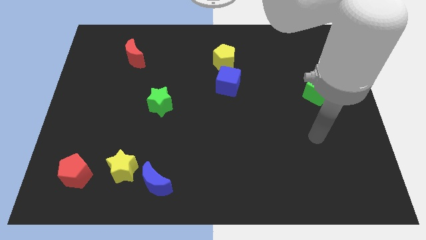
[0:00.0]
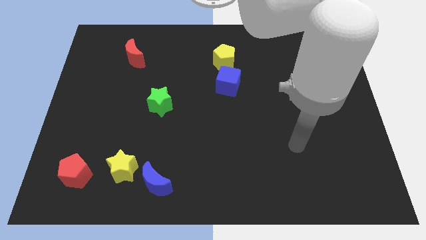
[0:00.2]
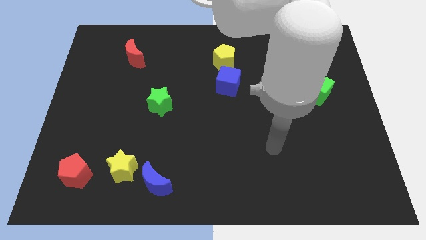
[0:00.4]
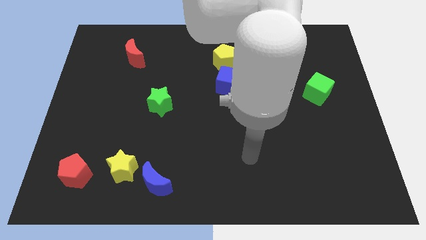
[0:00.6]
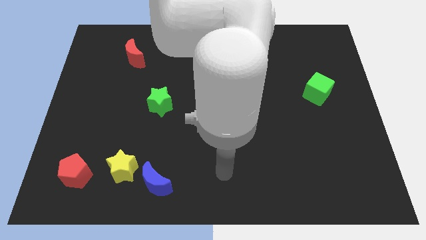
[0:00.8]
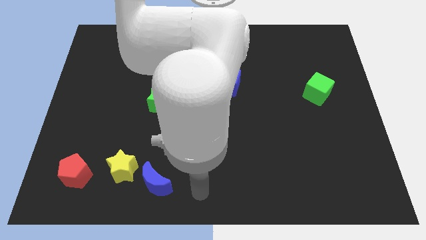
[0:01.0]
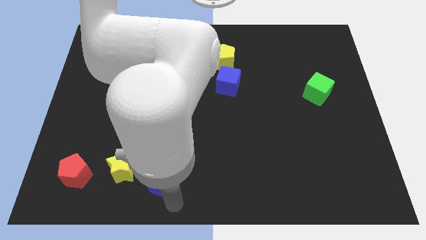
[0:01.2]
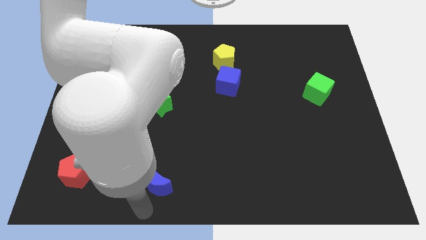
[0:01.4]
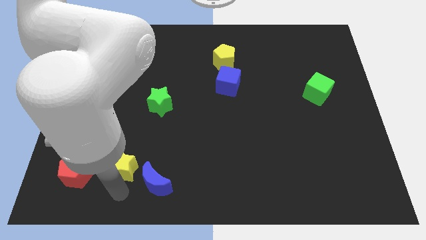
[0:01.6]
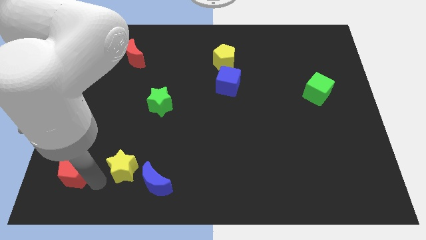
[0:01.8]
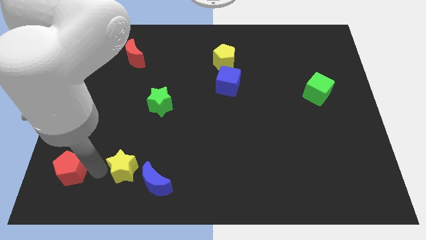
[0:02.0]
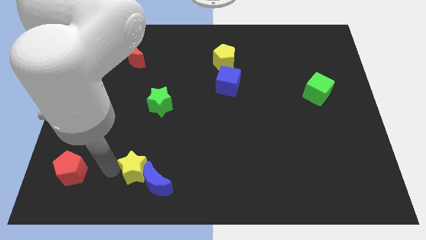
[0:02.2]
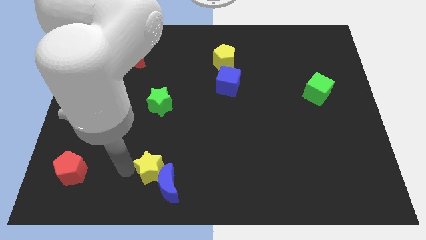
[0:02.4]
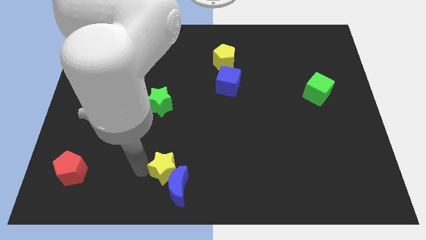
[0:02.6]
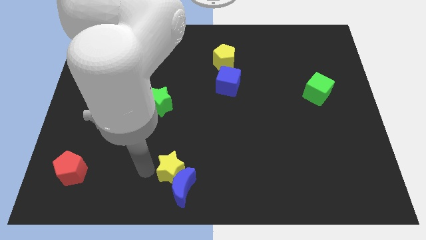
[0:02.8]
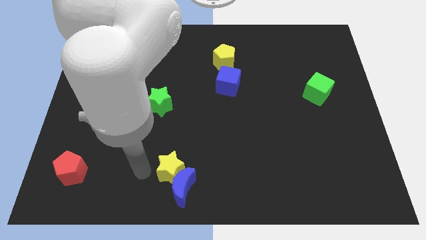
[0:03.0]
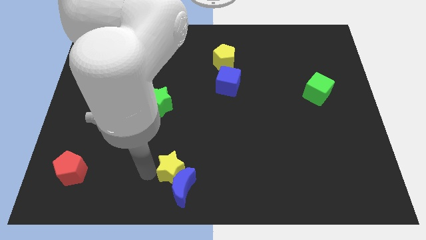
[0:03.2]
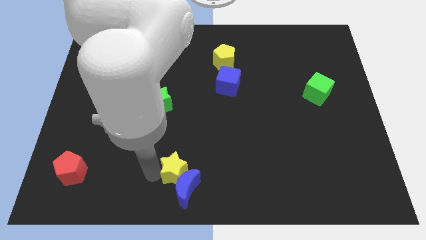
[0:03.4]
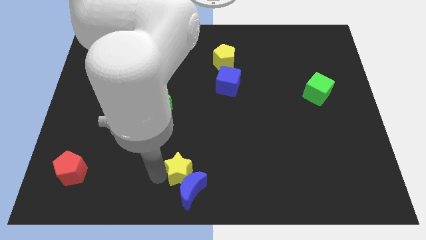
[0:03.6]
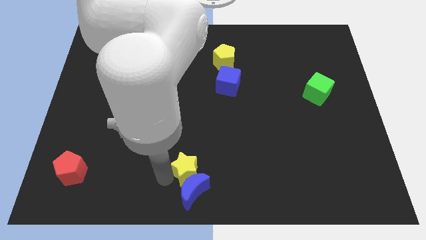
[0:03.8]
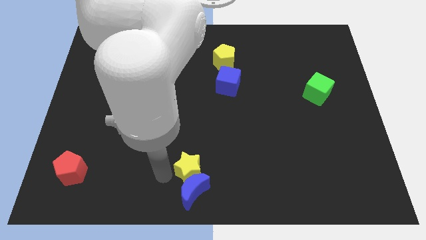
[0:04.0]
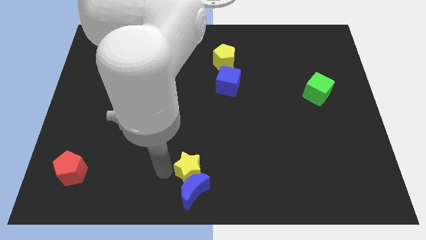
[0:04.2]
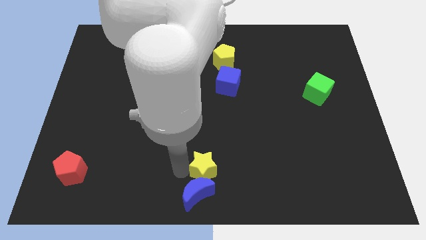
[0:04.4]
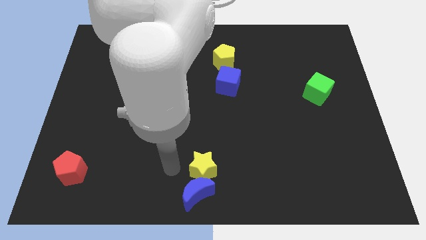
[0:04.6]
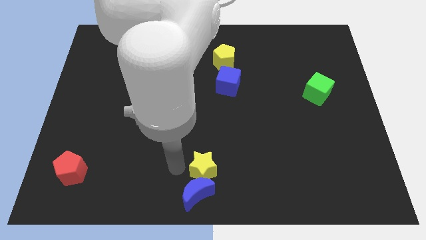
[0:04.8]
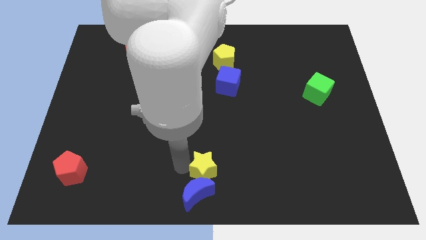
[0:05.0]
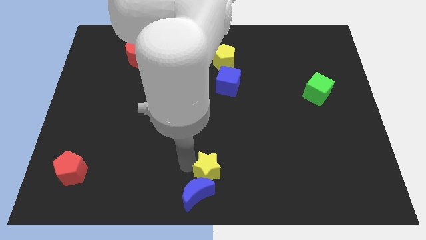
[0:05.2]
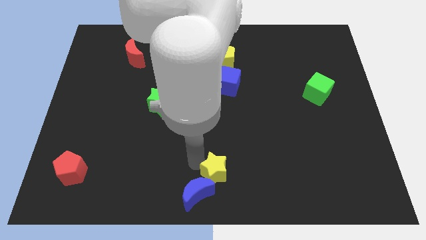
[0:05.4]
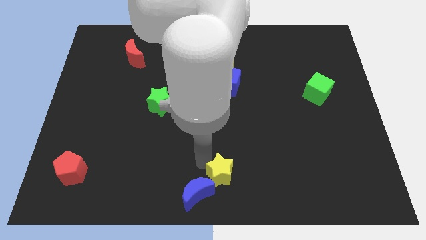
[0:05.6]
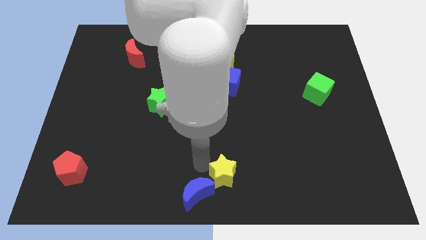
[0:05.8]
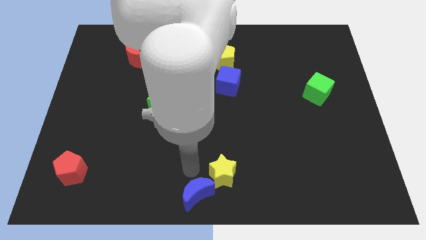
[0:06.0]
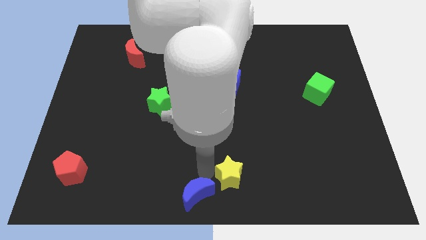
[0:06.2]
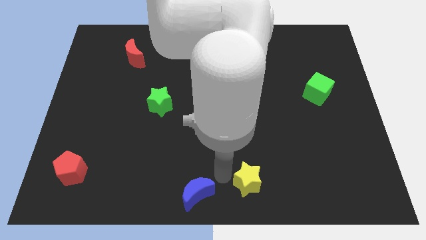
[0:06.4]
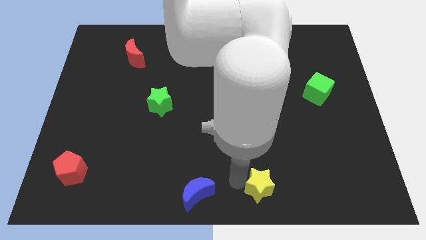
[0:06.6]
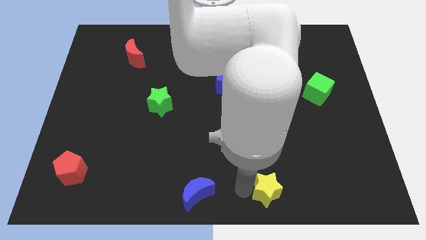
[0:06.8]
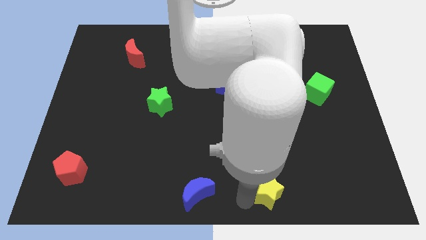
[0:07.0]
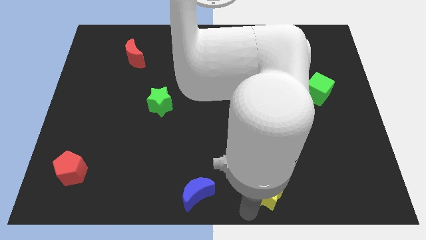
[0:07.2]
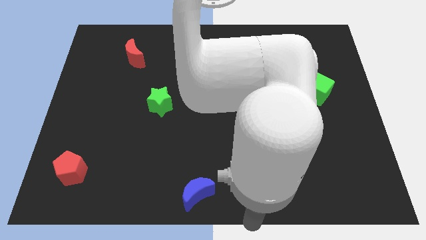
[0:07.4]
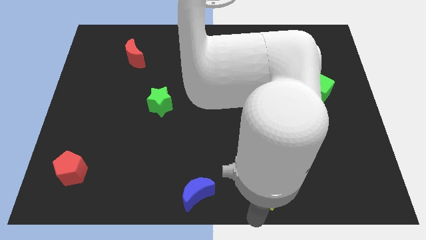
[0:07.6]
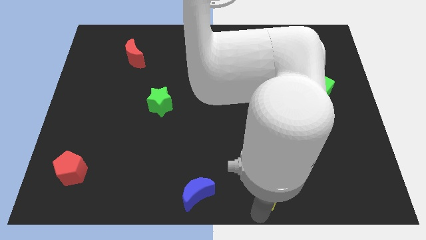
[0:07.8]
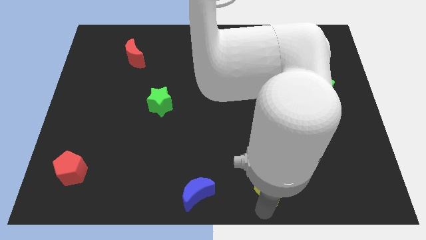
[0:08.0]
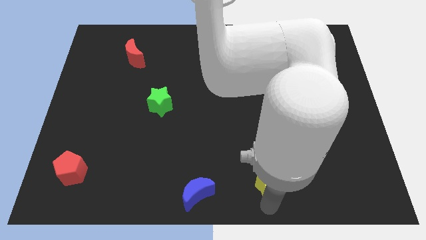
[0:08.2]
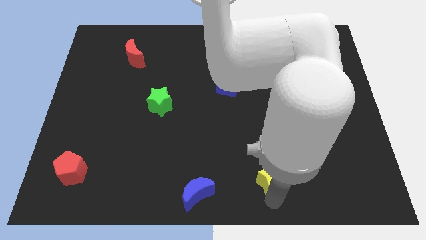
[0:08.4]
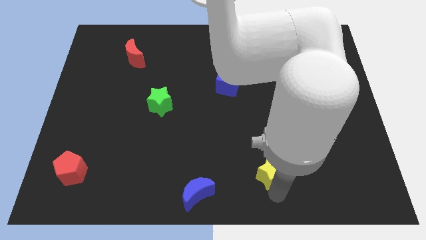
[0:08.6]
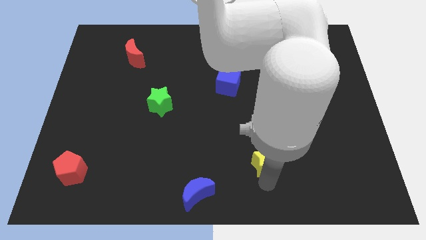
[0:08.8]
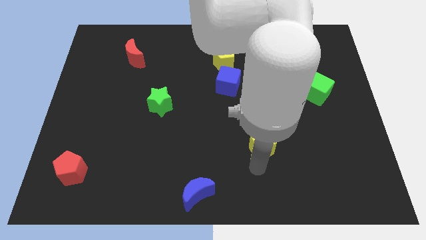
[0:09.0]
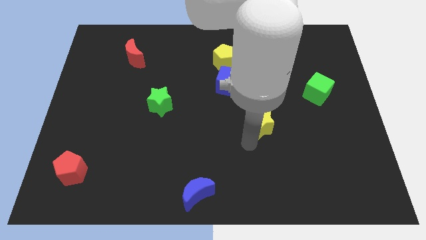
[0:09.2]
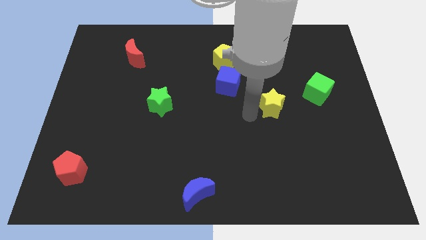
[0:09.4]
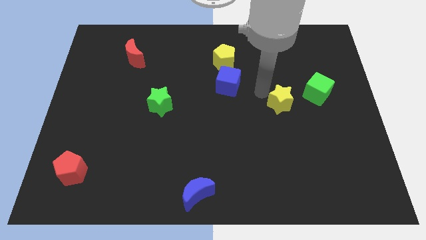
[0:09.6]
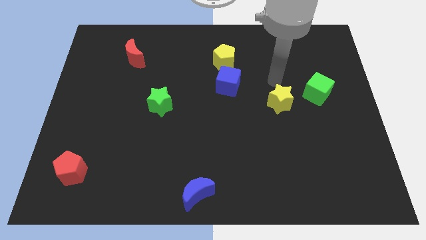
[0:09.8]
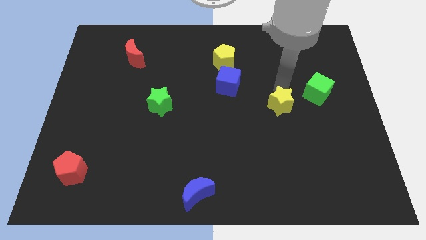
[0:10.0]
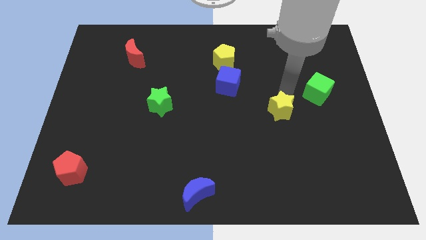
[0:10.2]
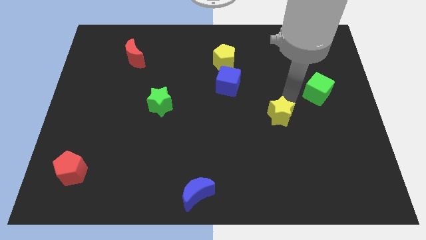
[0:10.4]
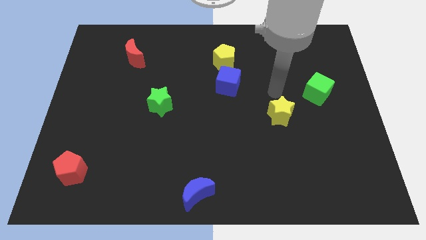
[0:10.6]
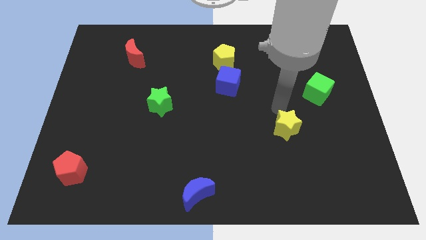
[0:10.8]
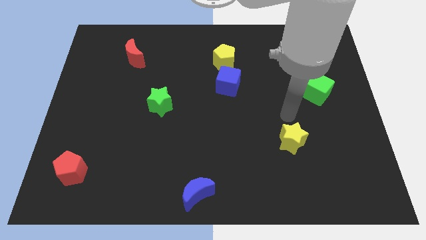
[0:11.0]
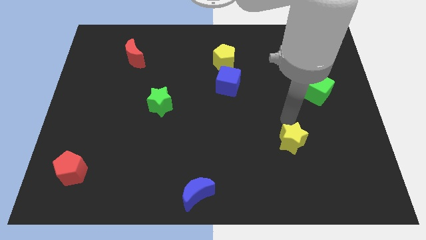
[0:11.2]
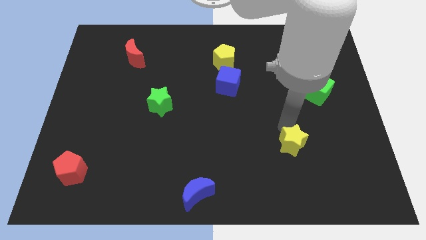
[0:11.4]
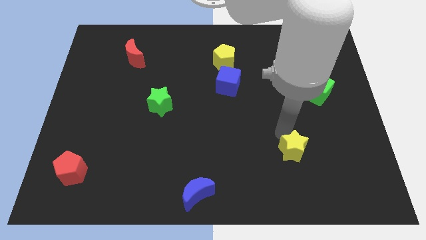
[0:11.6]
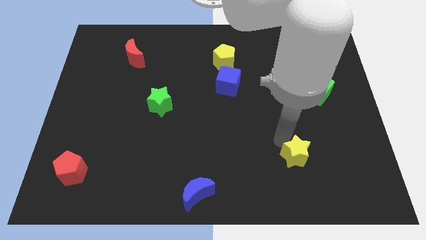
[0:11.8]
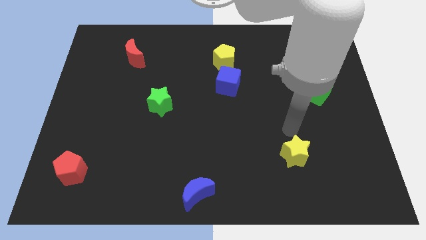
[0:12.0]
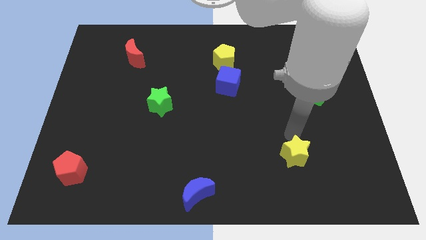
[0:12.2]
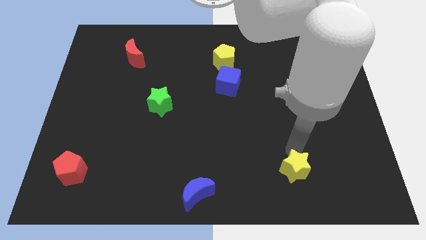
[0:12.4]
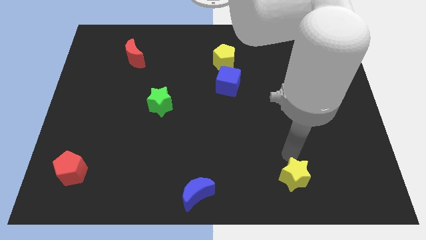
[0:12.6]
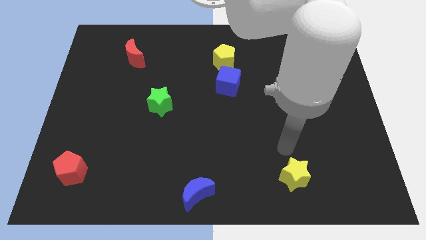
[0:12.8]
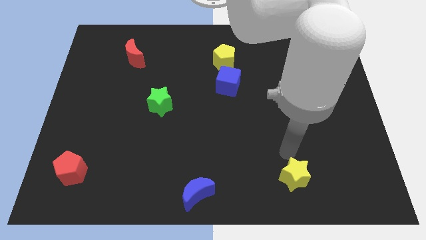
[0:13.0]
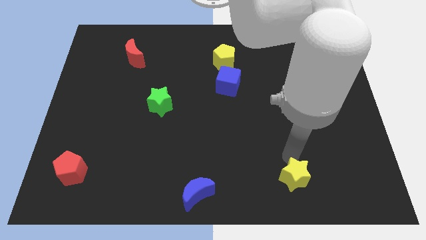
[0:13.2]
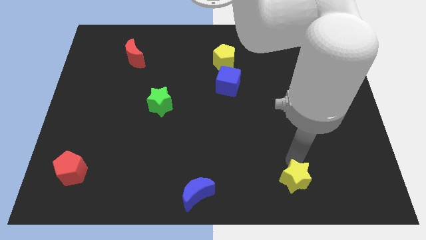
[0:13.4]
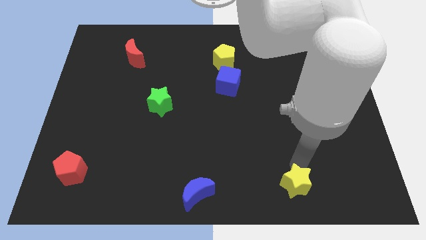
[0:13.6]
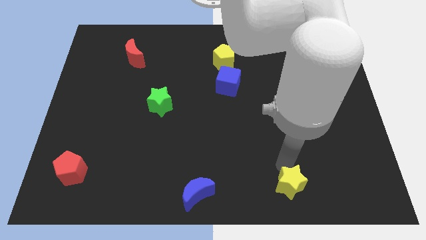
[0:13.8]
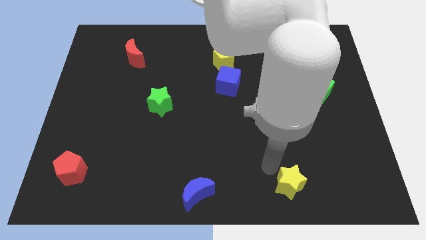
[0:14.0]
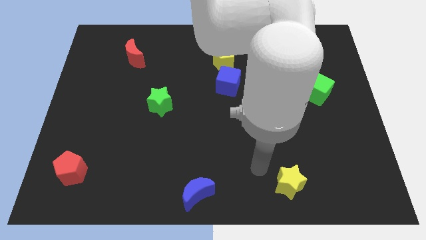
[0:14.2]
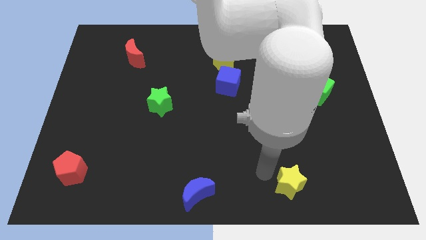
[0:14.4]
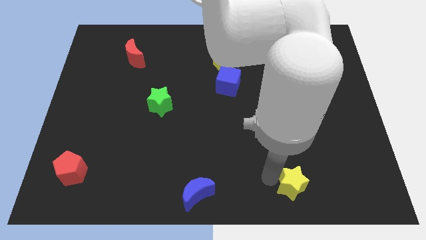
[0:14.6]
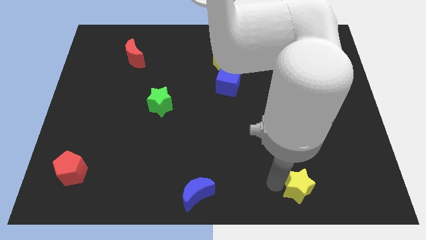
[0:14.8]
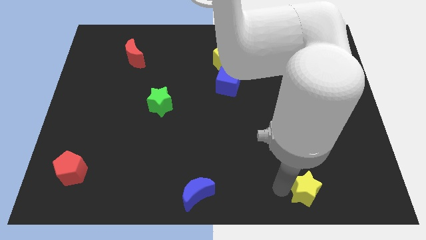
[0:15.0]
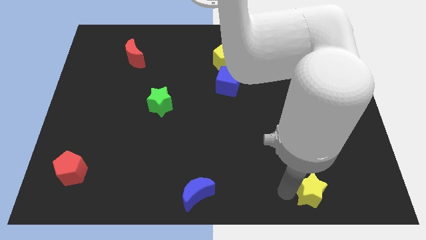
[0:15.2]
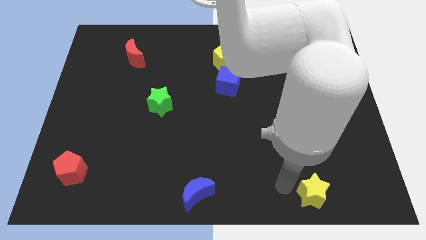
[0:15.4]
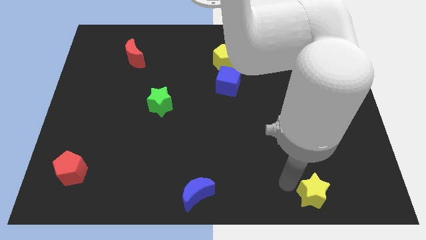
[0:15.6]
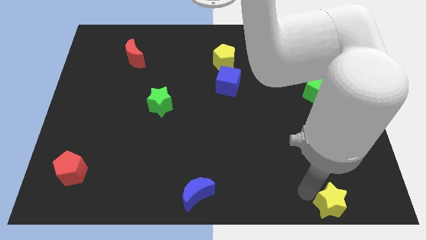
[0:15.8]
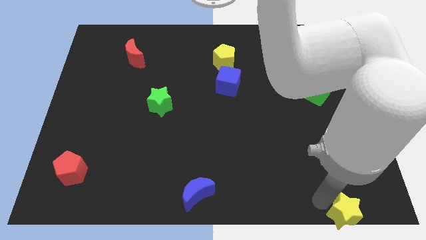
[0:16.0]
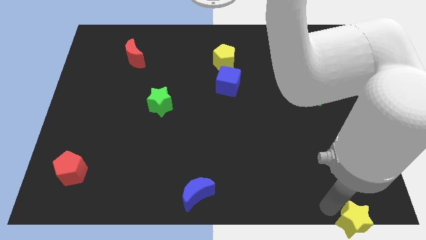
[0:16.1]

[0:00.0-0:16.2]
move the yellow star to the lower right corner
